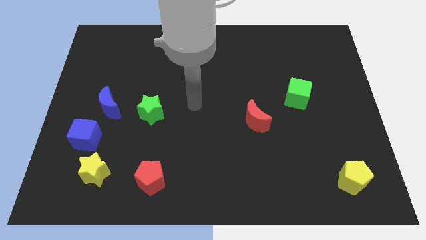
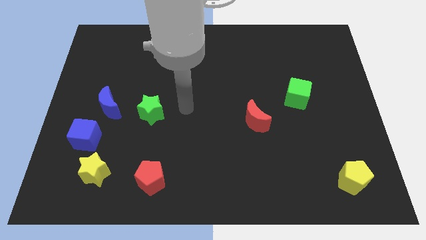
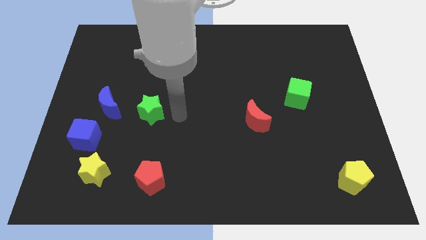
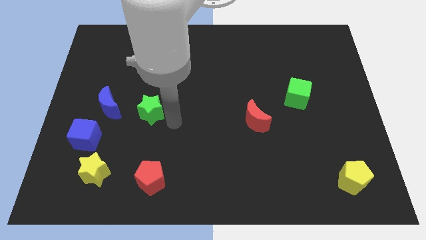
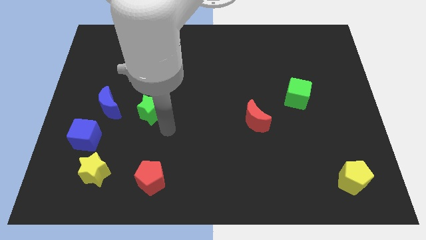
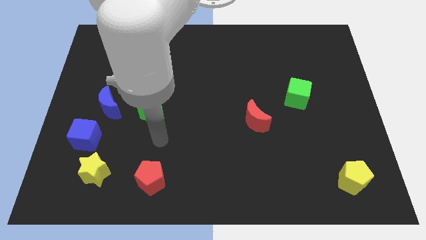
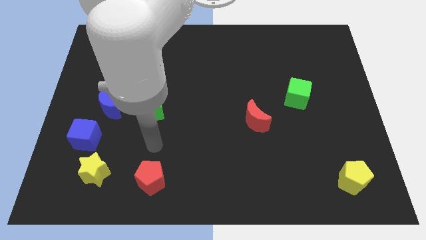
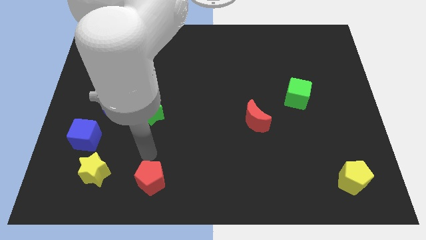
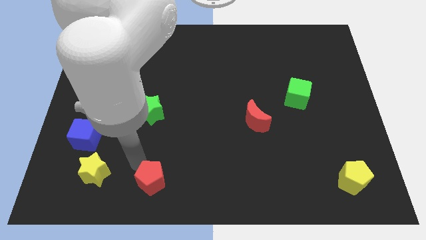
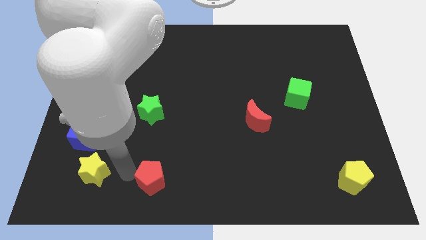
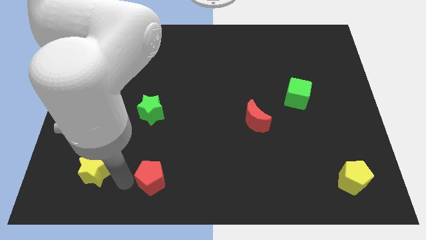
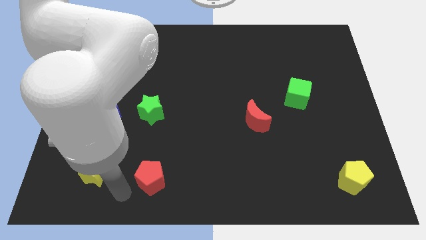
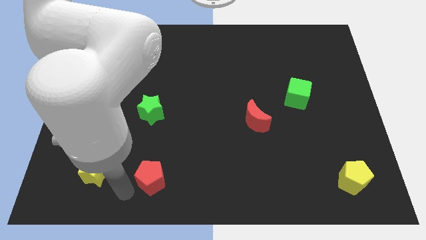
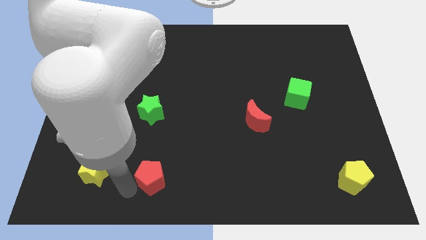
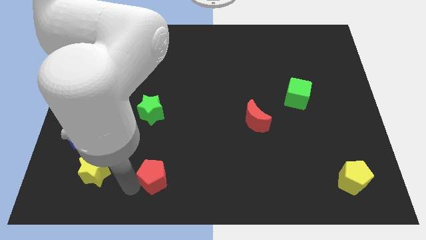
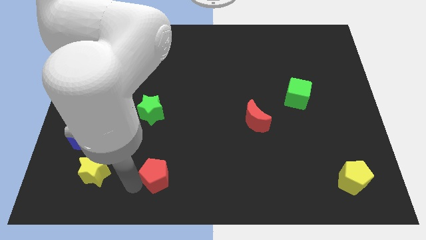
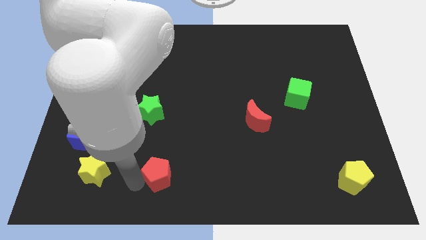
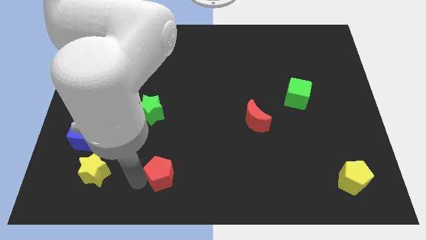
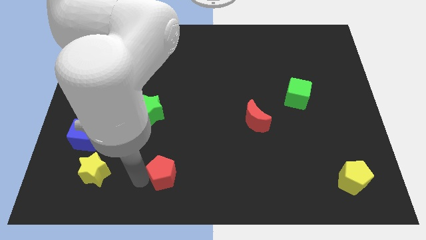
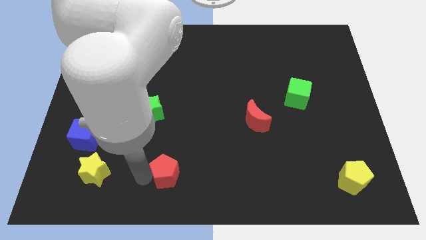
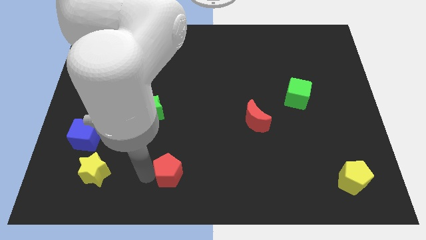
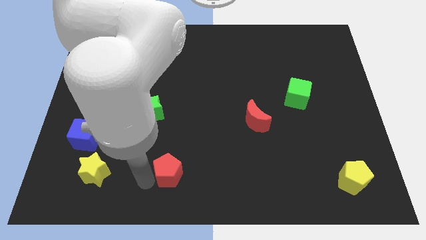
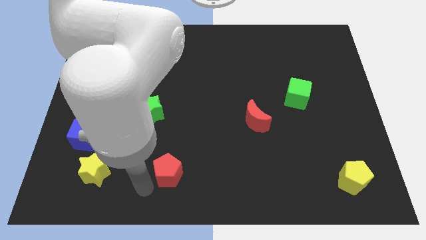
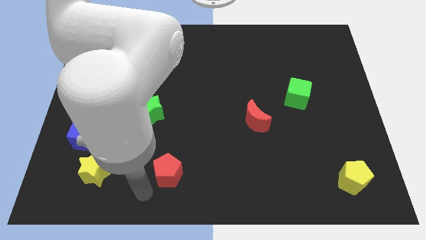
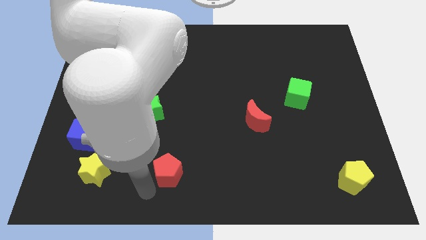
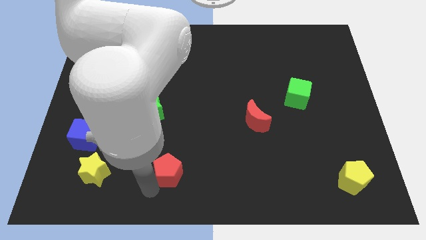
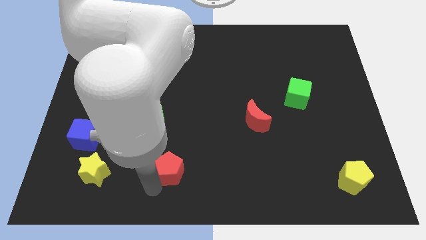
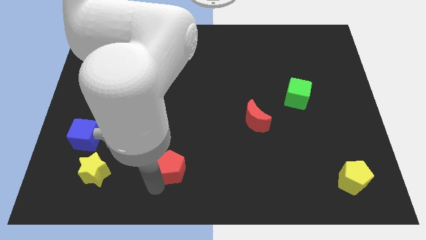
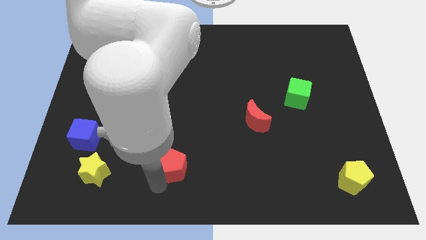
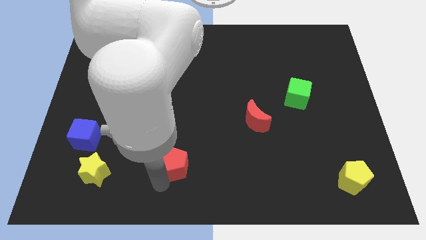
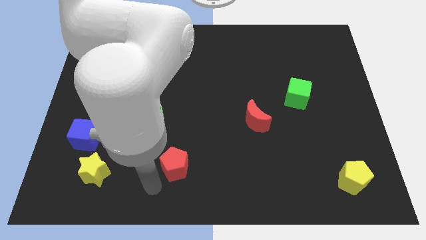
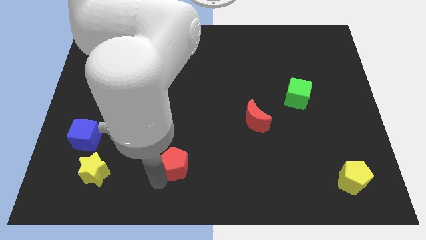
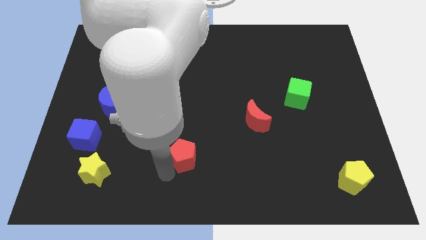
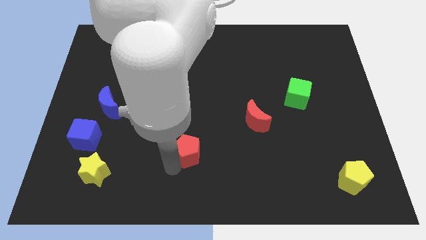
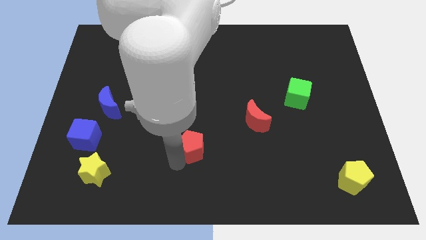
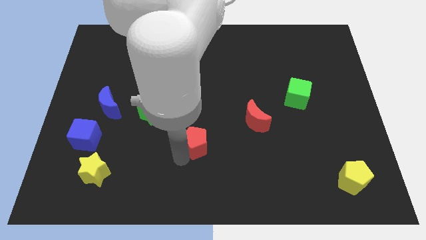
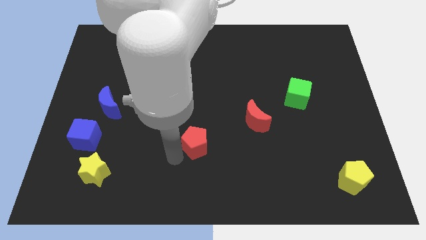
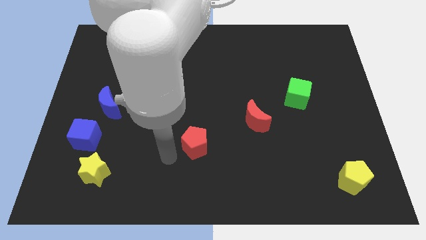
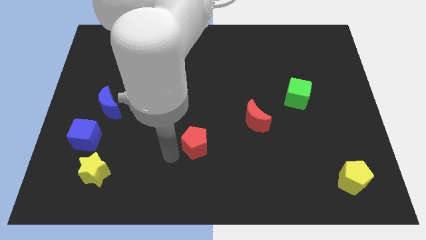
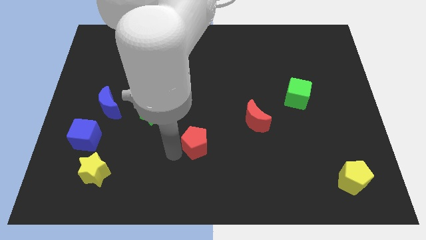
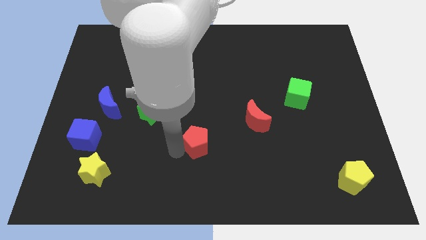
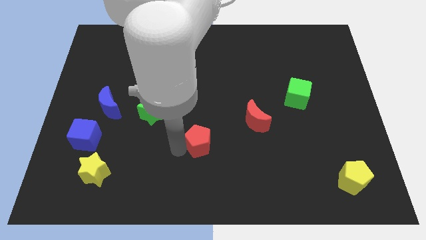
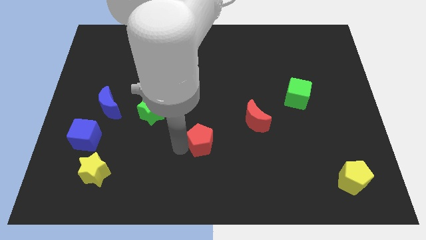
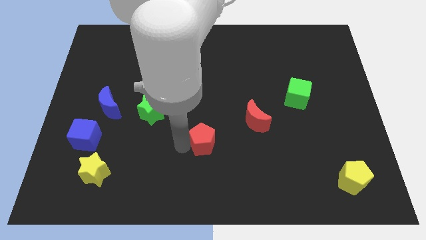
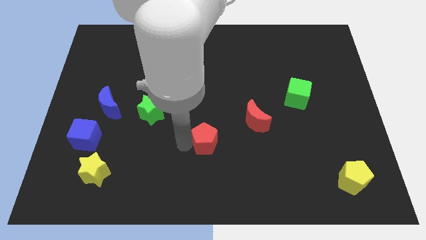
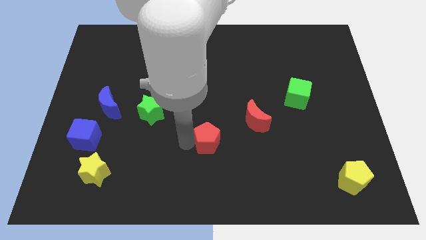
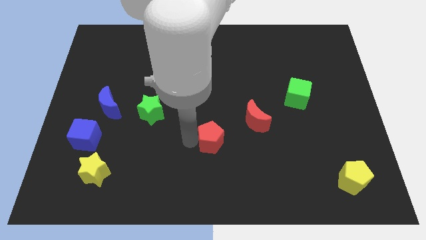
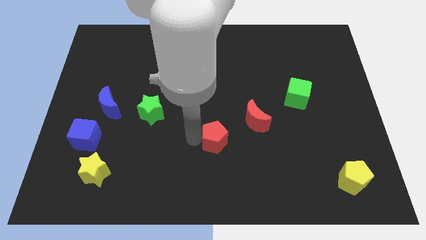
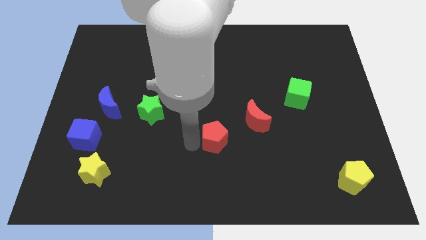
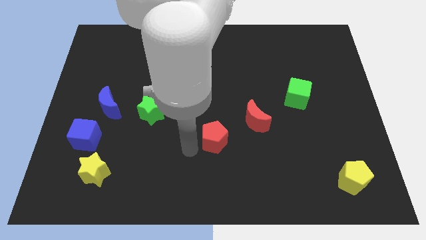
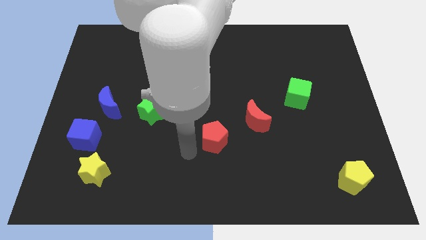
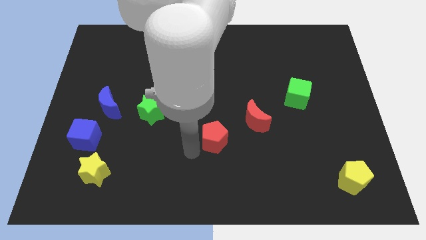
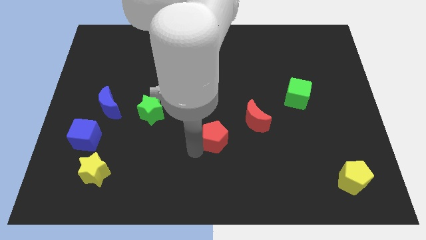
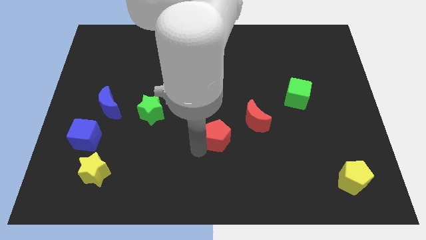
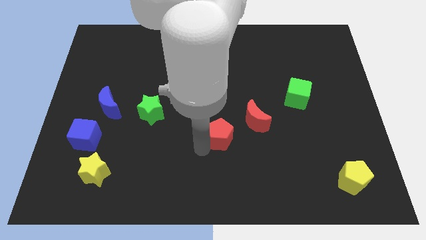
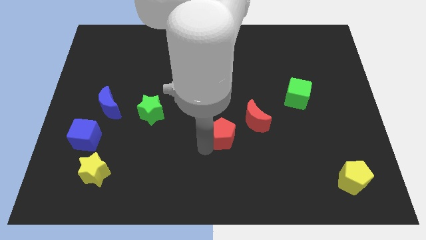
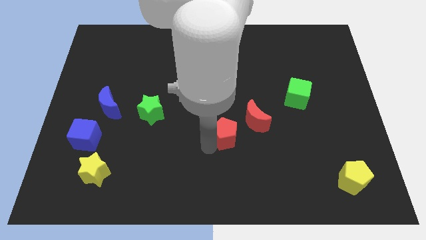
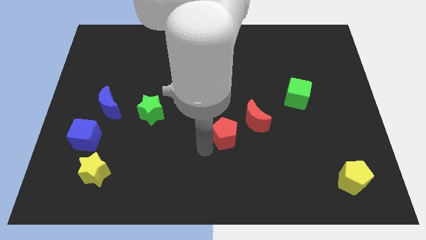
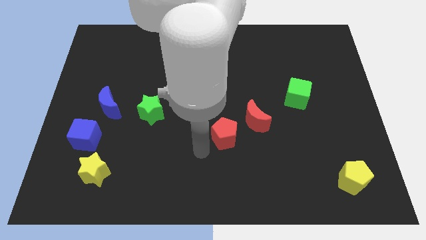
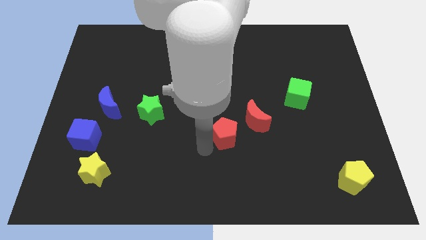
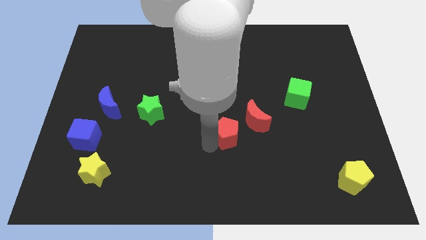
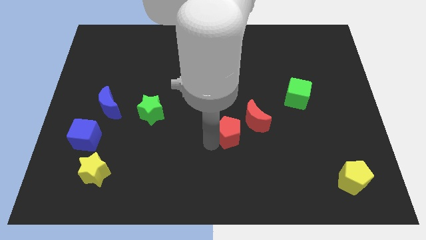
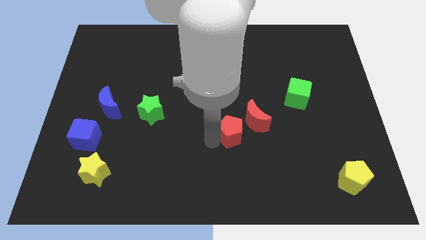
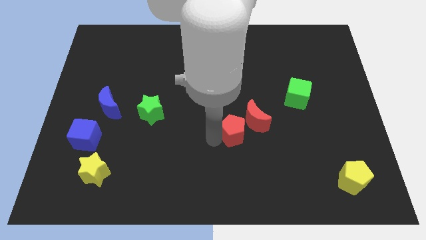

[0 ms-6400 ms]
move the red pentagon next to the red moon

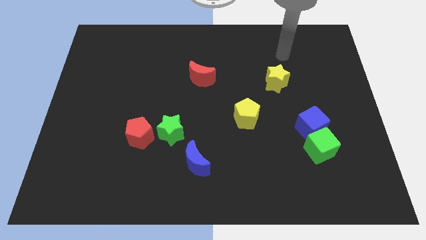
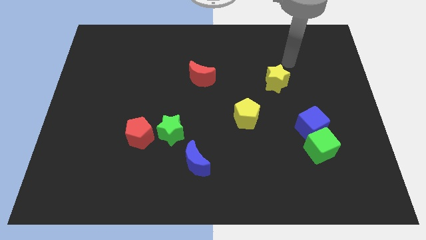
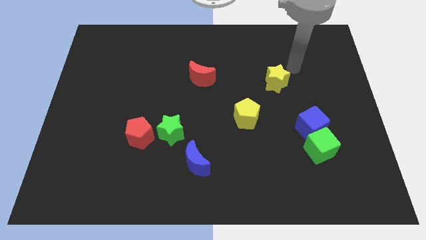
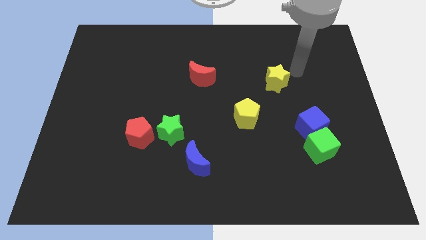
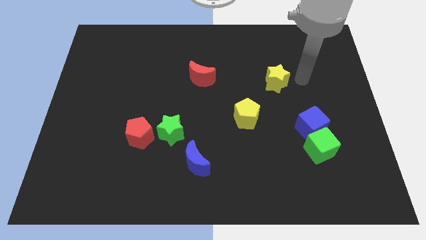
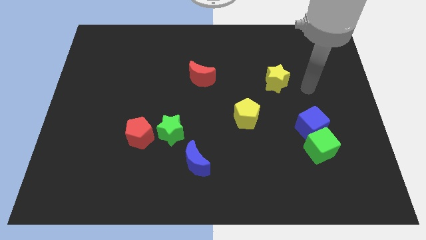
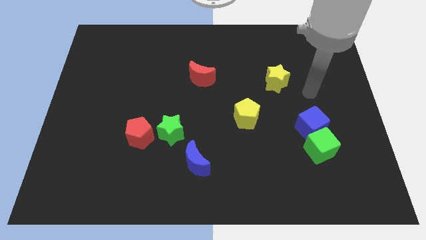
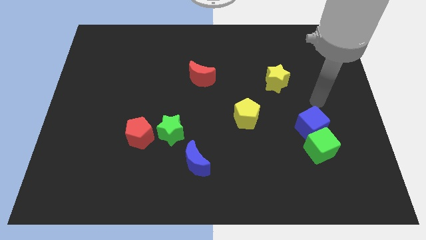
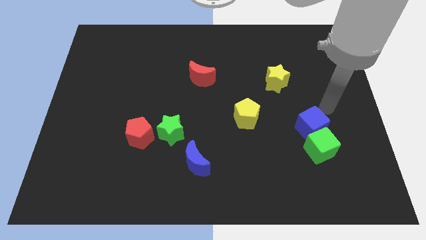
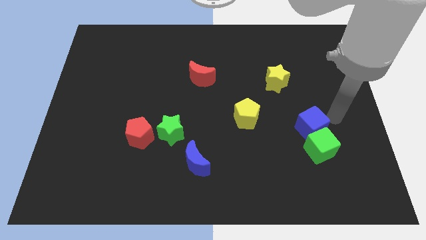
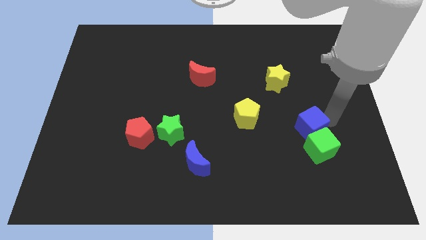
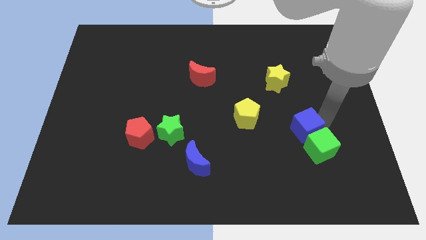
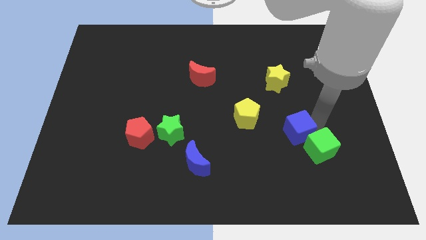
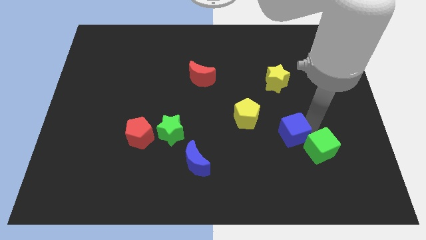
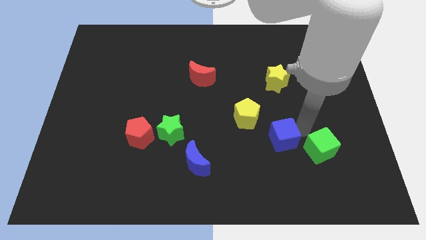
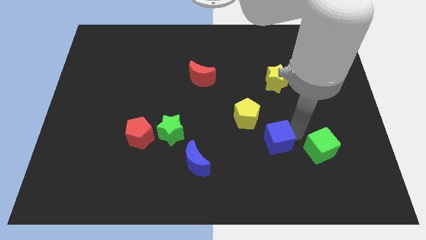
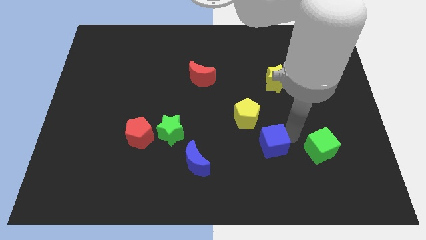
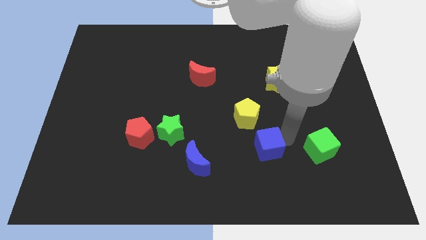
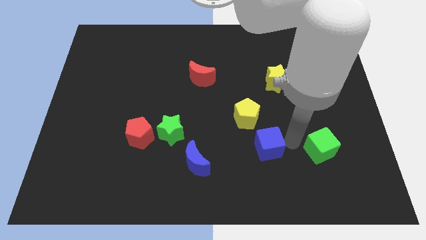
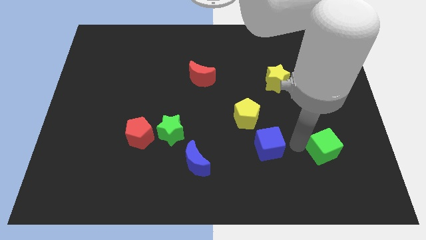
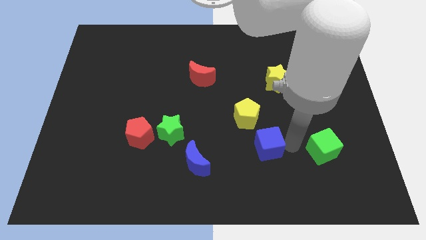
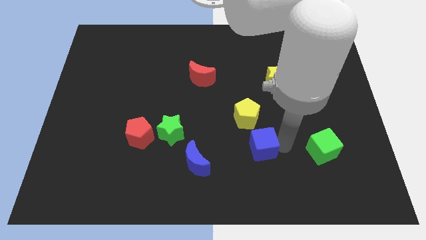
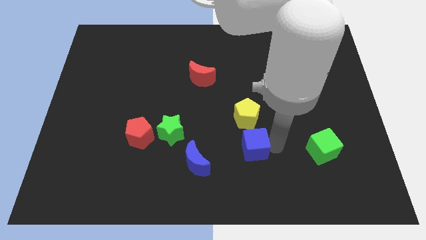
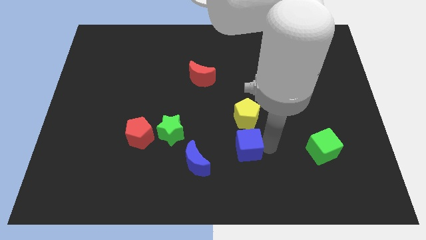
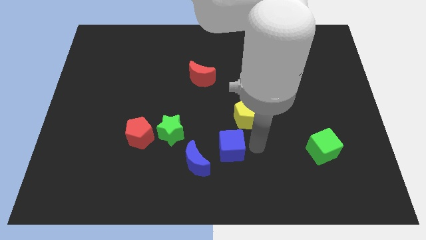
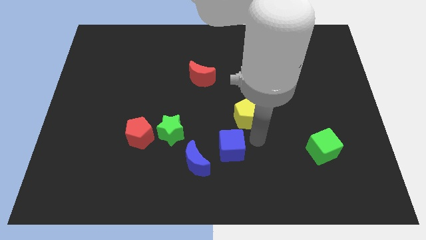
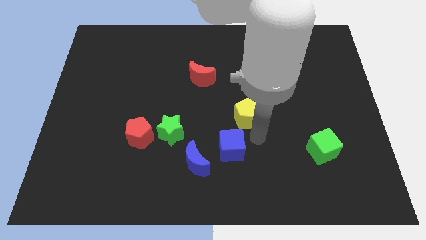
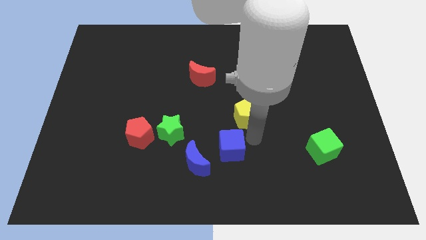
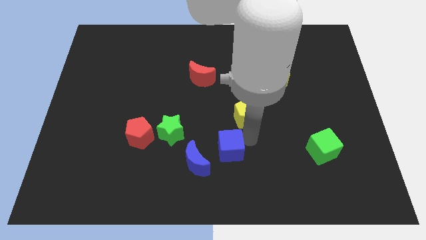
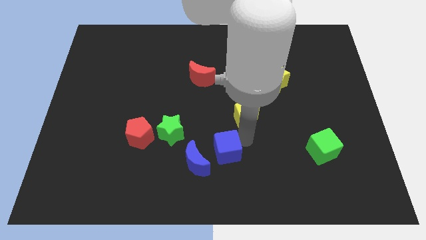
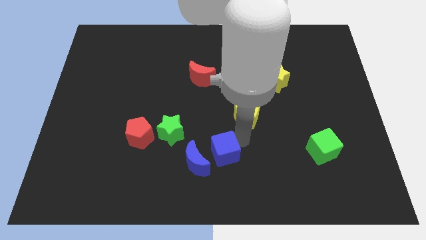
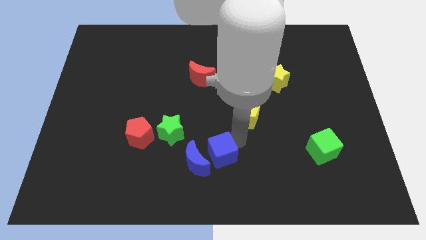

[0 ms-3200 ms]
slide the blue cube close to the blue moon
